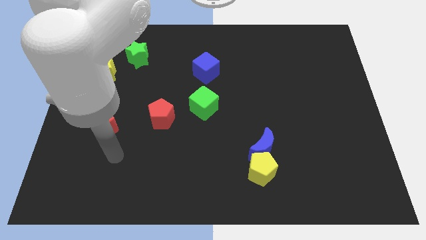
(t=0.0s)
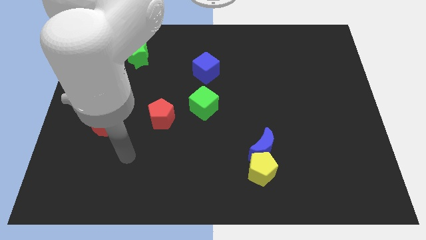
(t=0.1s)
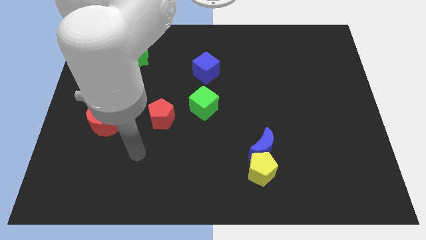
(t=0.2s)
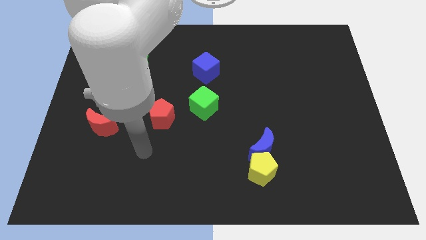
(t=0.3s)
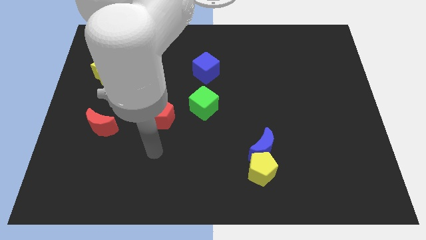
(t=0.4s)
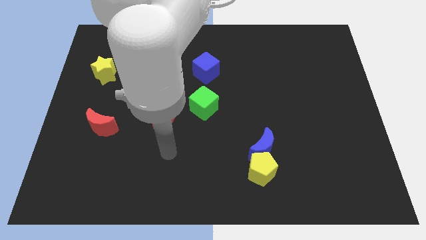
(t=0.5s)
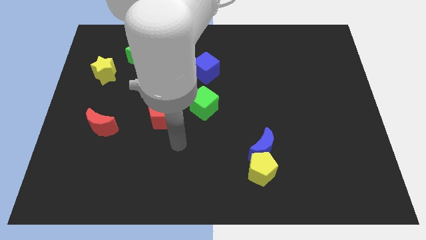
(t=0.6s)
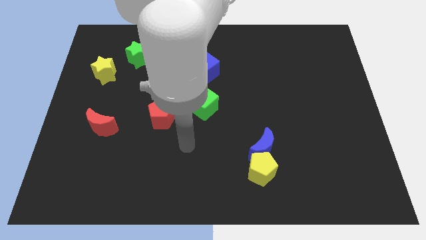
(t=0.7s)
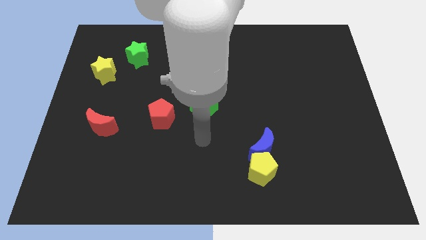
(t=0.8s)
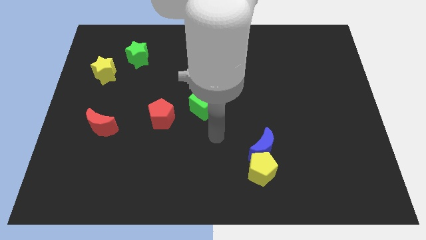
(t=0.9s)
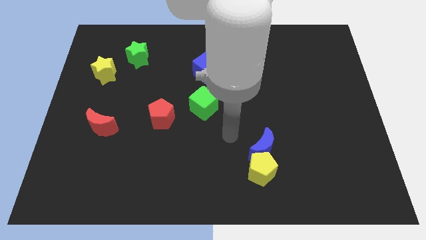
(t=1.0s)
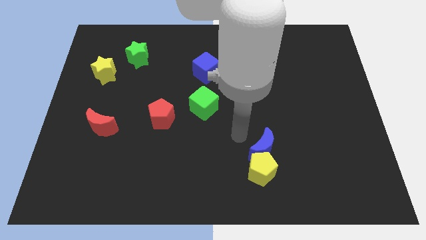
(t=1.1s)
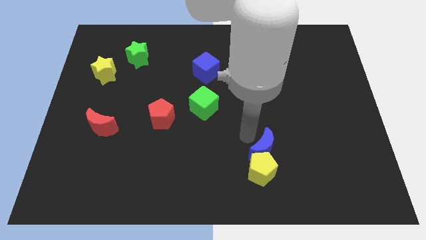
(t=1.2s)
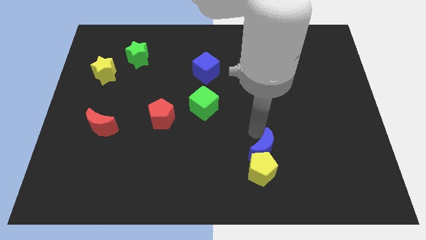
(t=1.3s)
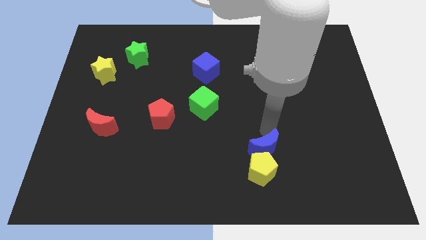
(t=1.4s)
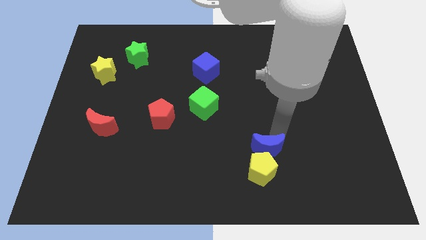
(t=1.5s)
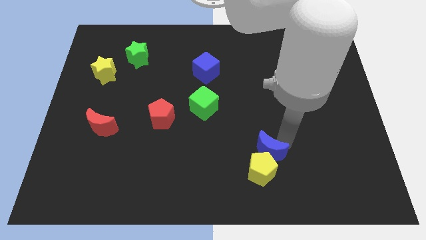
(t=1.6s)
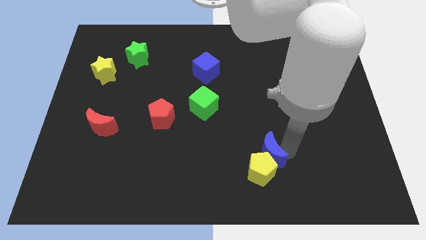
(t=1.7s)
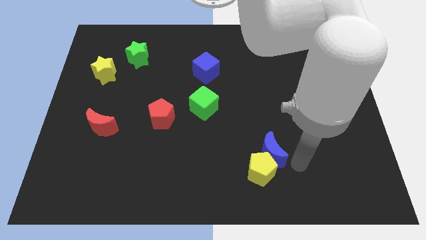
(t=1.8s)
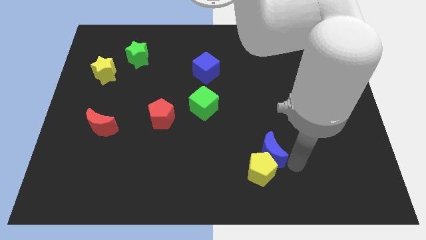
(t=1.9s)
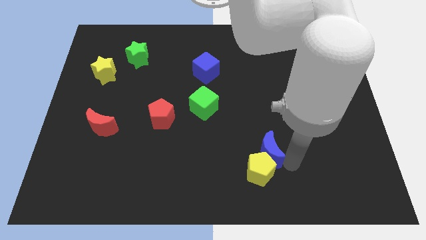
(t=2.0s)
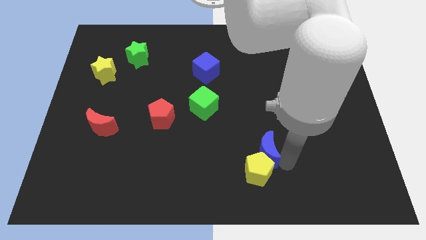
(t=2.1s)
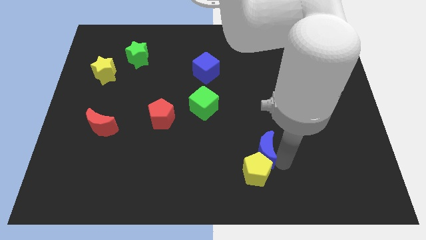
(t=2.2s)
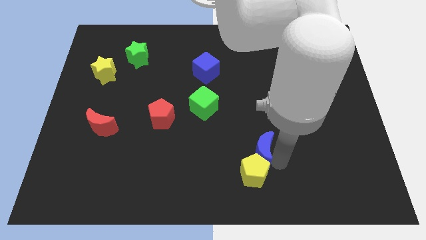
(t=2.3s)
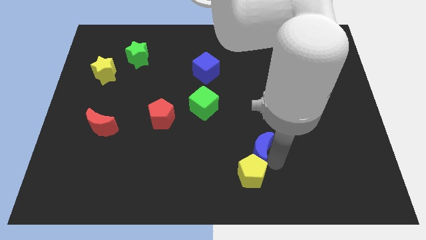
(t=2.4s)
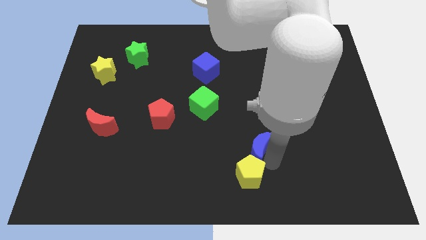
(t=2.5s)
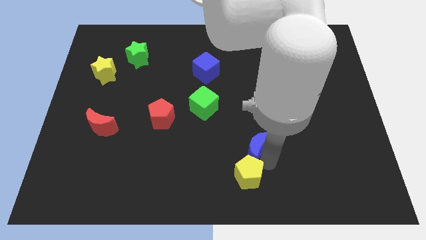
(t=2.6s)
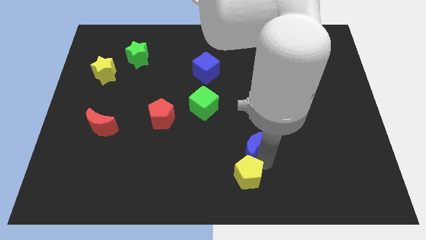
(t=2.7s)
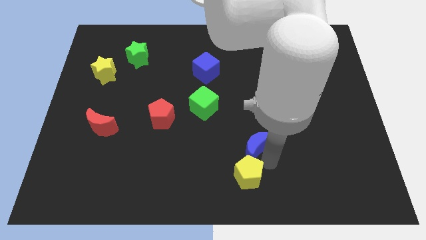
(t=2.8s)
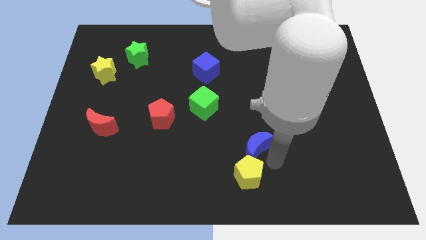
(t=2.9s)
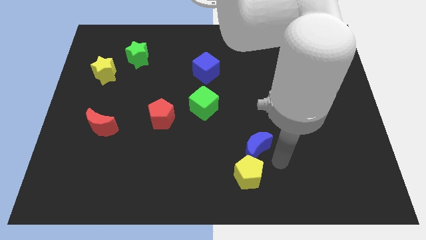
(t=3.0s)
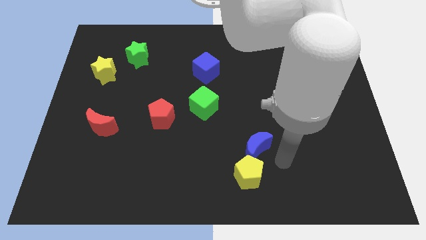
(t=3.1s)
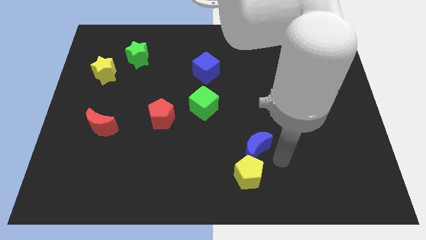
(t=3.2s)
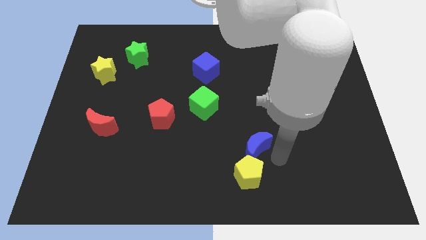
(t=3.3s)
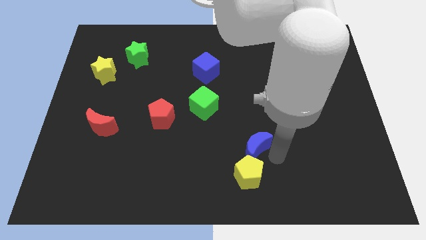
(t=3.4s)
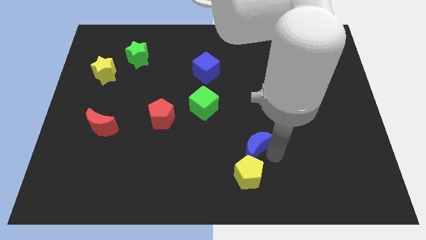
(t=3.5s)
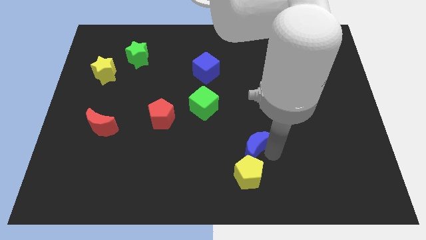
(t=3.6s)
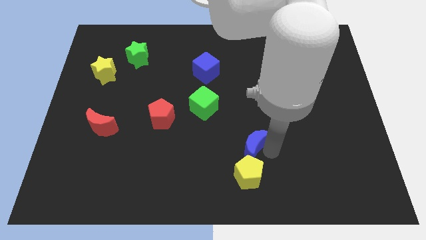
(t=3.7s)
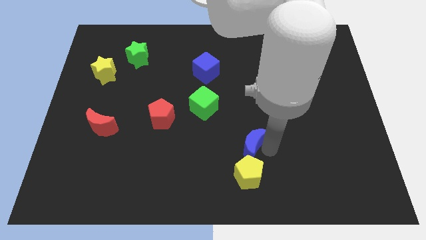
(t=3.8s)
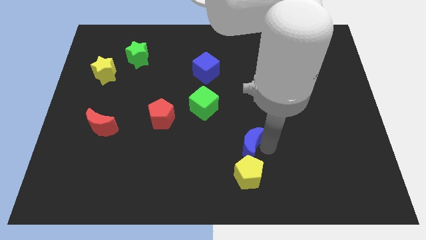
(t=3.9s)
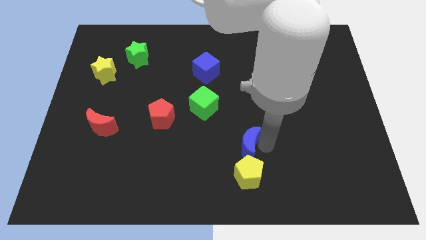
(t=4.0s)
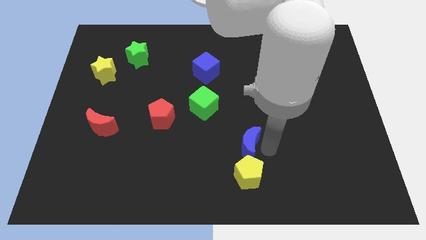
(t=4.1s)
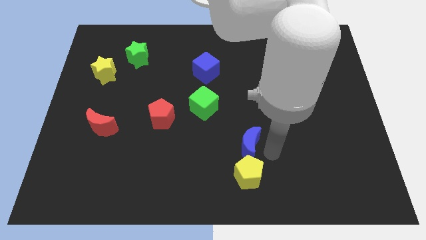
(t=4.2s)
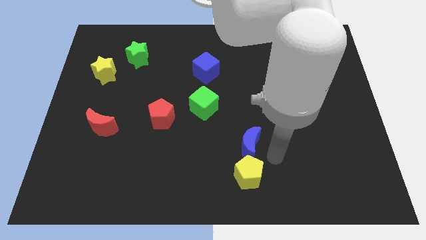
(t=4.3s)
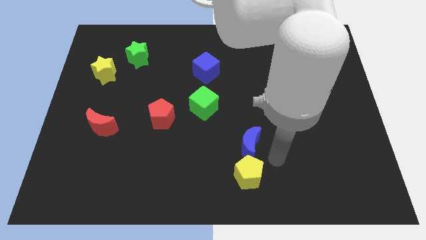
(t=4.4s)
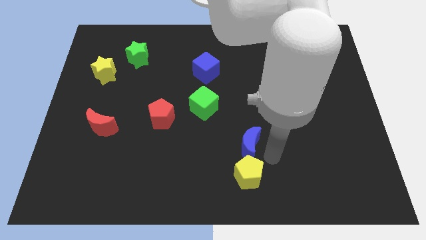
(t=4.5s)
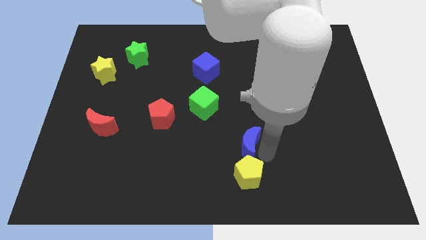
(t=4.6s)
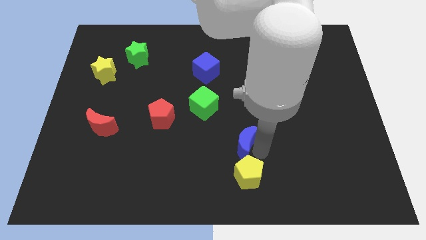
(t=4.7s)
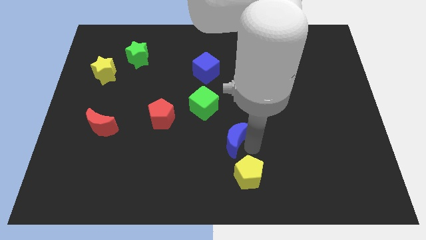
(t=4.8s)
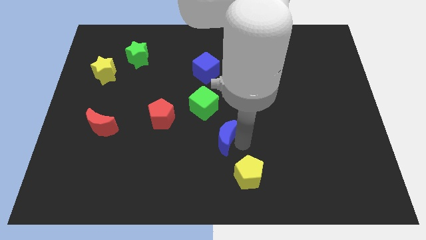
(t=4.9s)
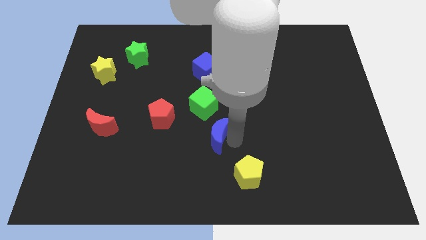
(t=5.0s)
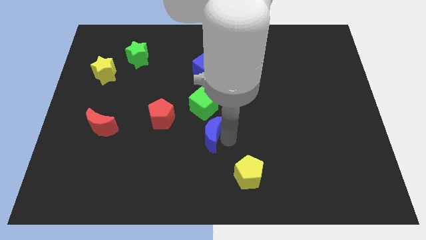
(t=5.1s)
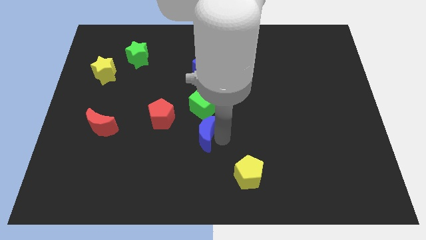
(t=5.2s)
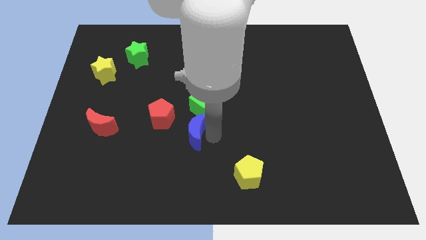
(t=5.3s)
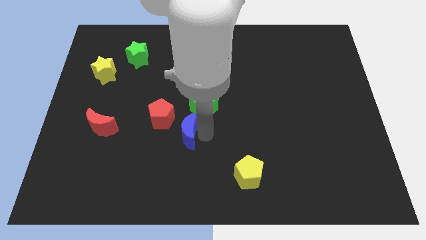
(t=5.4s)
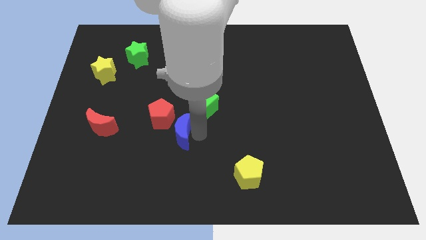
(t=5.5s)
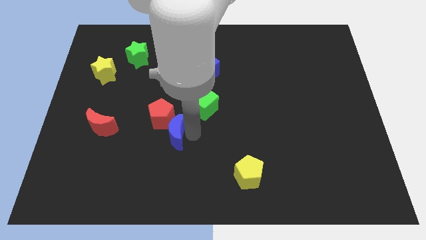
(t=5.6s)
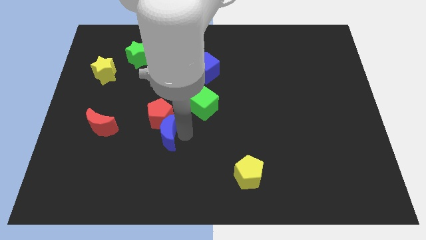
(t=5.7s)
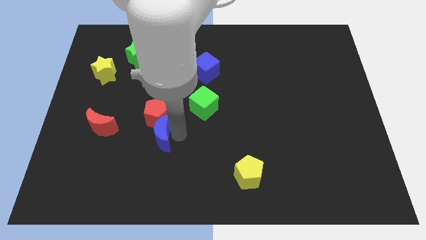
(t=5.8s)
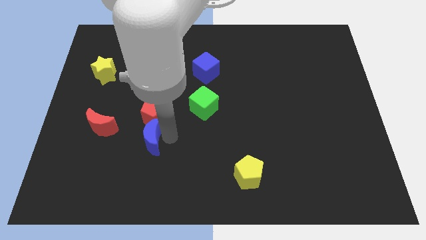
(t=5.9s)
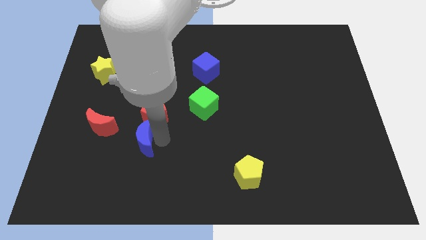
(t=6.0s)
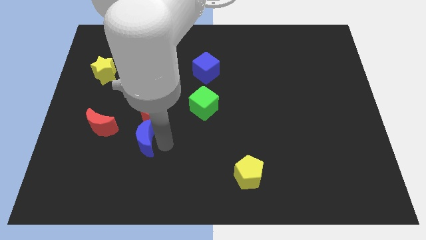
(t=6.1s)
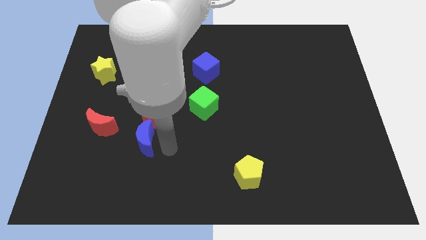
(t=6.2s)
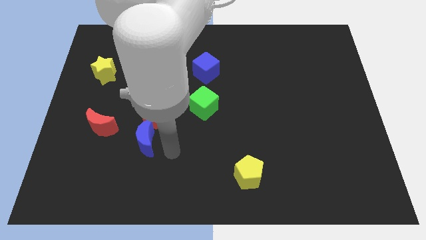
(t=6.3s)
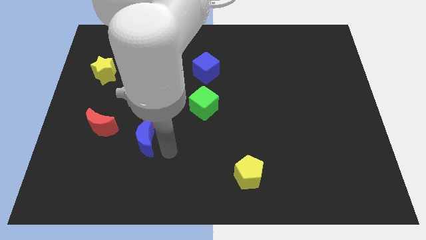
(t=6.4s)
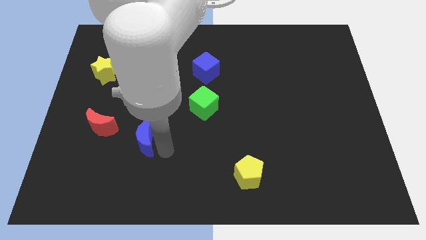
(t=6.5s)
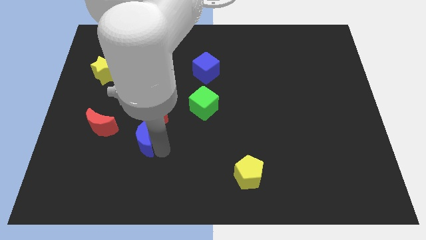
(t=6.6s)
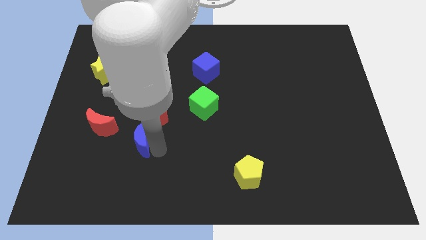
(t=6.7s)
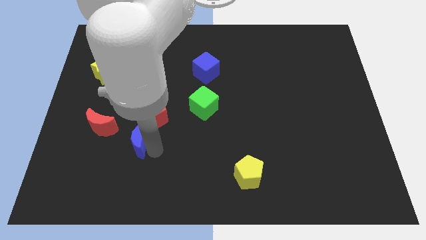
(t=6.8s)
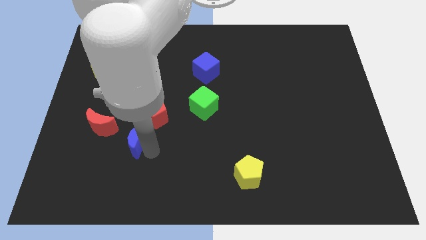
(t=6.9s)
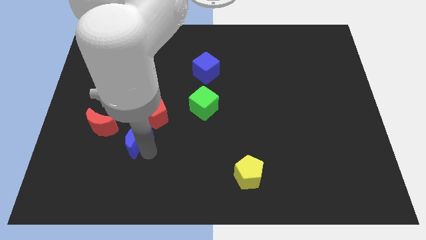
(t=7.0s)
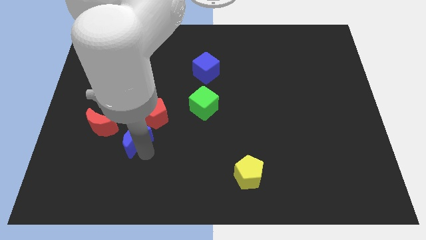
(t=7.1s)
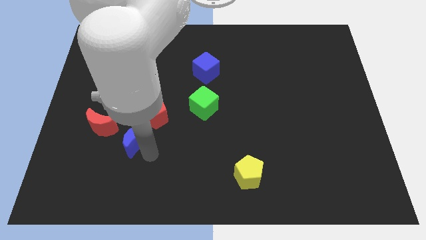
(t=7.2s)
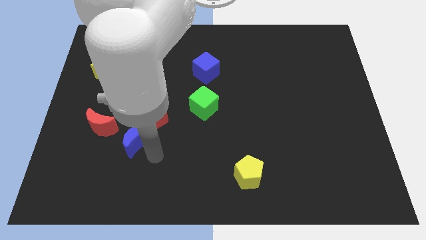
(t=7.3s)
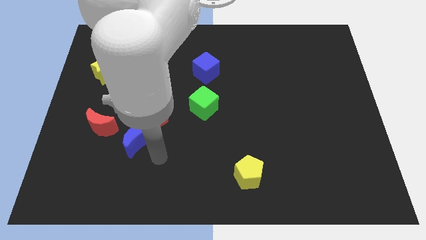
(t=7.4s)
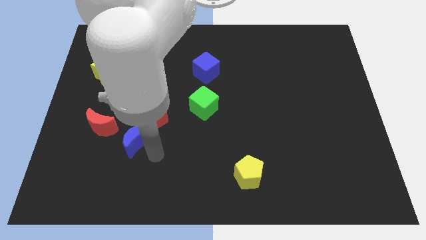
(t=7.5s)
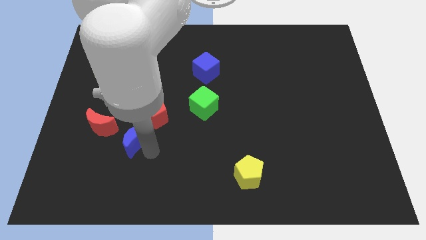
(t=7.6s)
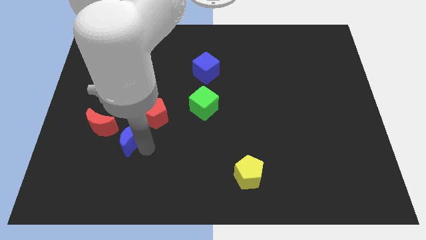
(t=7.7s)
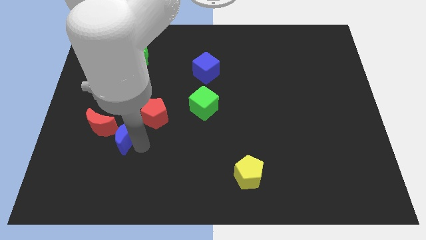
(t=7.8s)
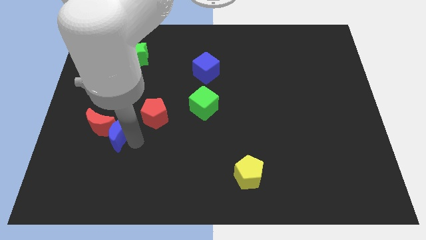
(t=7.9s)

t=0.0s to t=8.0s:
put the blue moon close to the red moon
